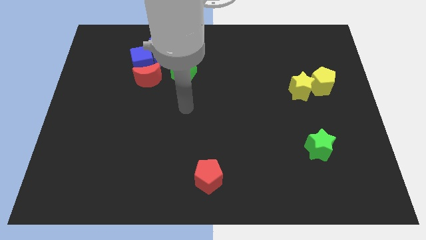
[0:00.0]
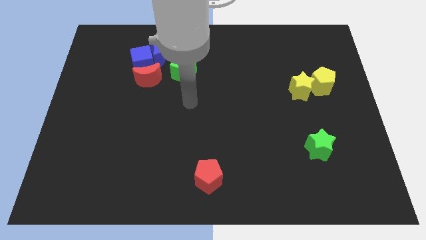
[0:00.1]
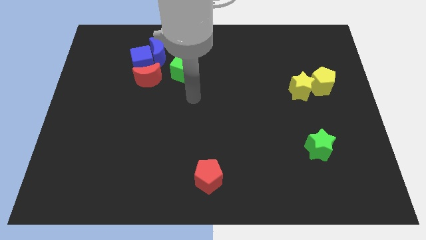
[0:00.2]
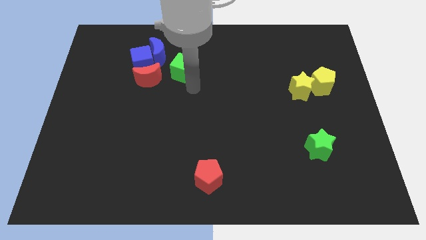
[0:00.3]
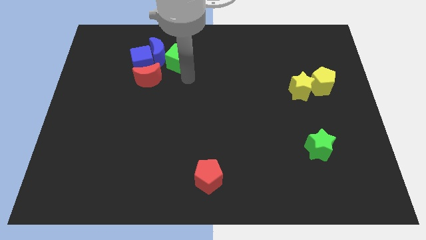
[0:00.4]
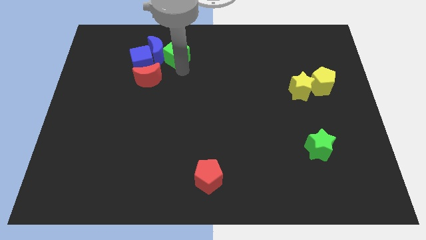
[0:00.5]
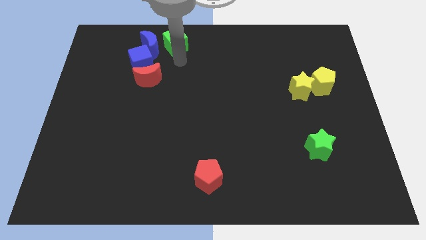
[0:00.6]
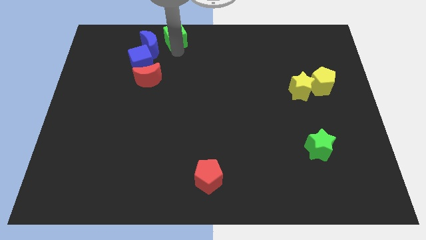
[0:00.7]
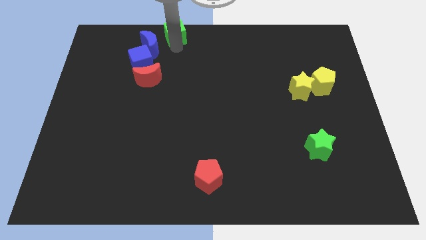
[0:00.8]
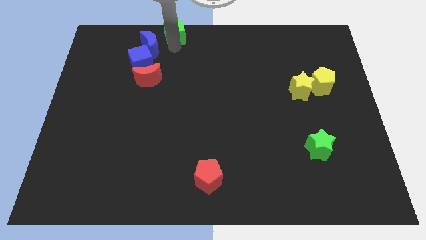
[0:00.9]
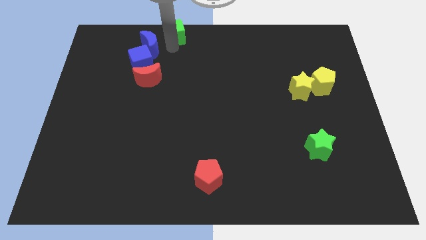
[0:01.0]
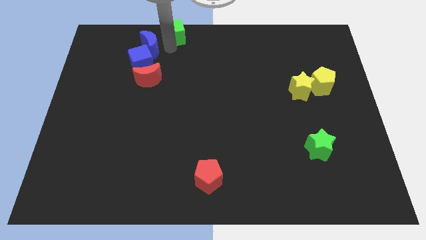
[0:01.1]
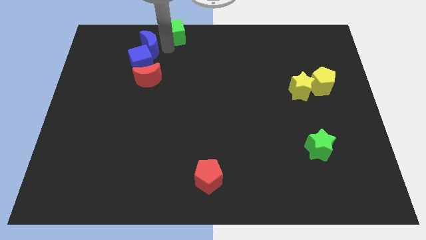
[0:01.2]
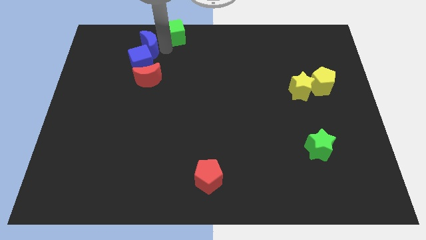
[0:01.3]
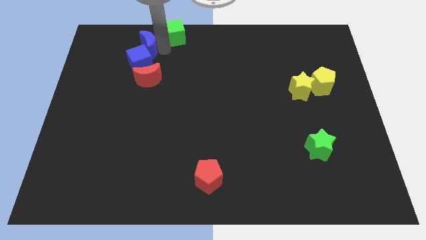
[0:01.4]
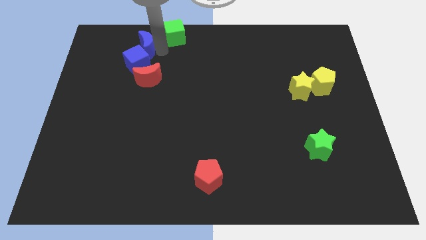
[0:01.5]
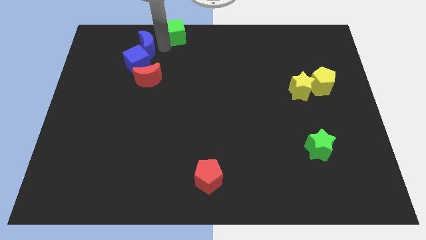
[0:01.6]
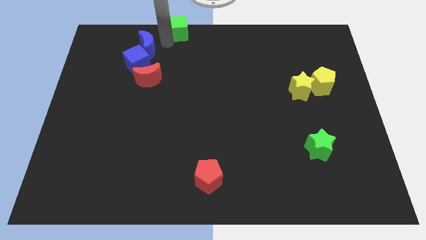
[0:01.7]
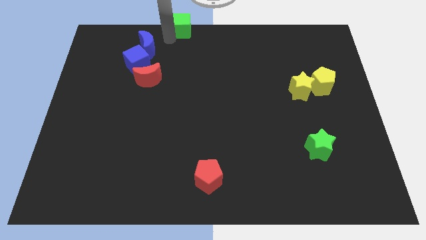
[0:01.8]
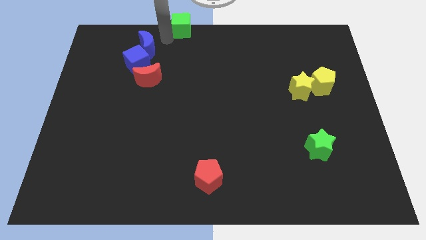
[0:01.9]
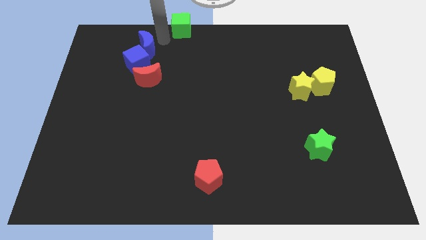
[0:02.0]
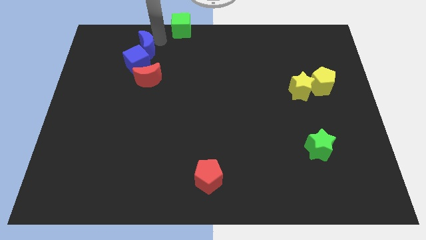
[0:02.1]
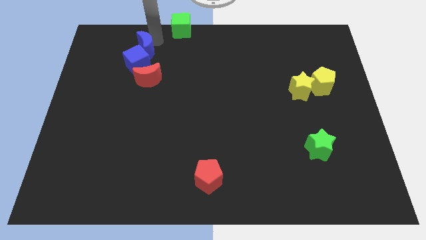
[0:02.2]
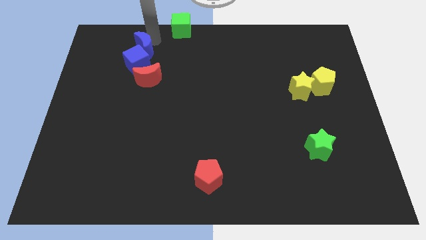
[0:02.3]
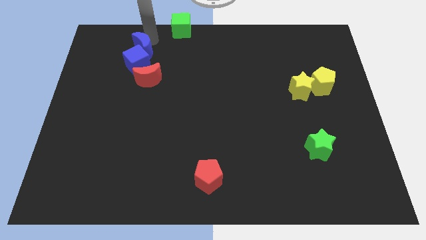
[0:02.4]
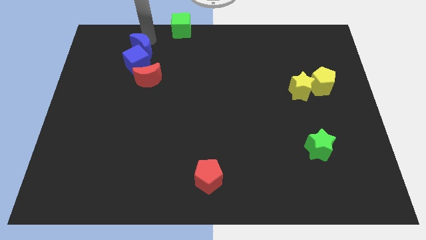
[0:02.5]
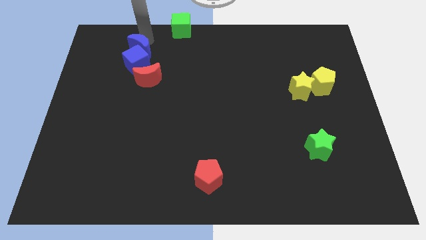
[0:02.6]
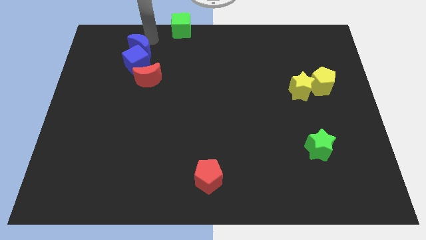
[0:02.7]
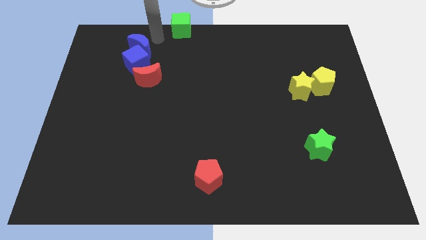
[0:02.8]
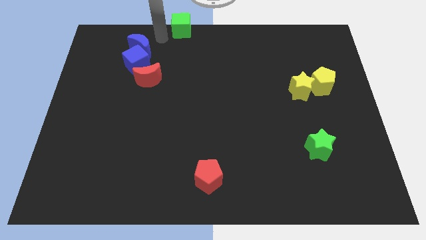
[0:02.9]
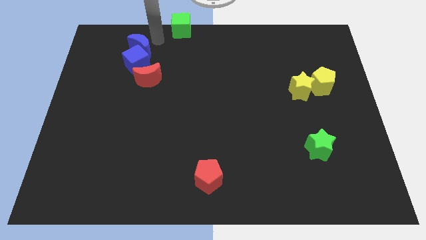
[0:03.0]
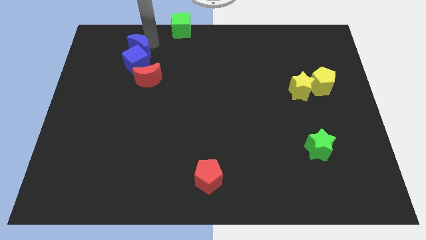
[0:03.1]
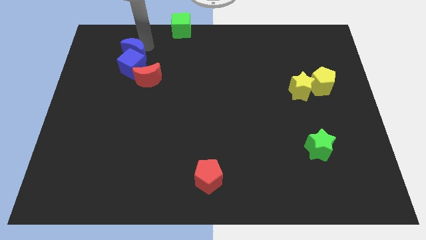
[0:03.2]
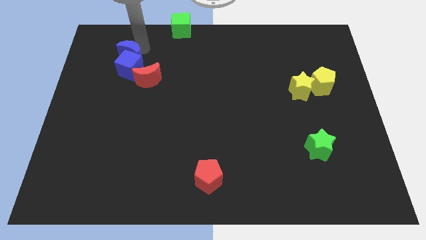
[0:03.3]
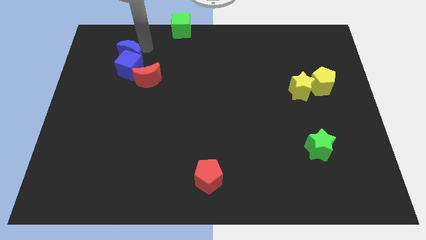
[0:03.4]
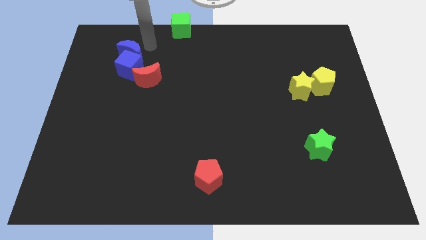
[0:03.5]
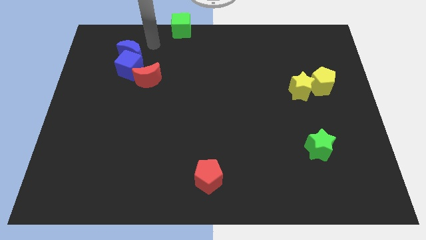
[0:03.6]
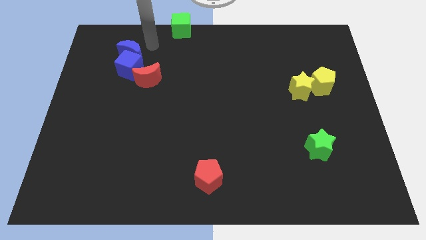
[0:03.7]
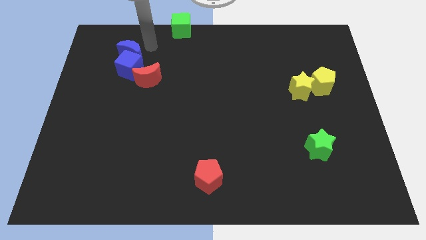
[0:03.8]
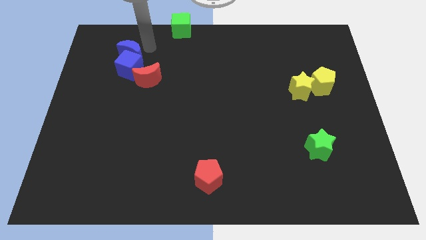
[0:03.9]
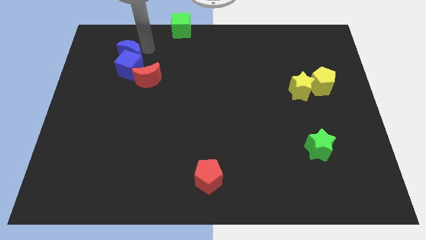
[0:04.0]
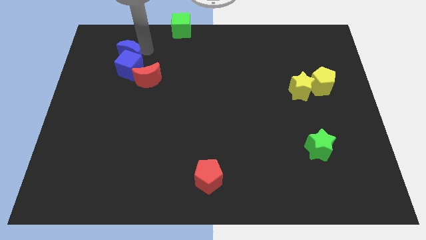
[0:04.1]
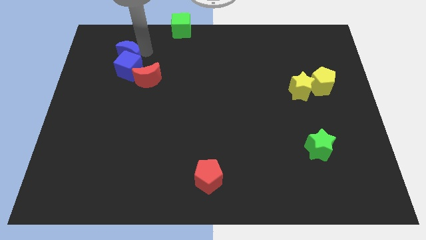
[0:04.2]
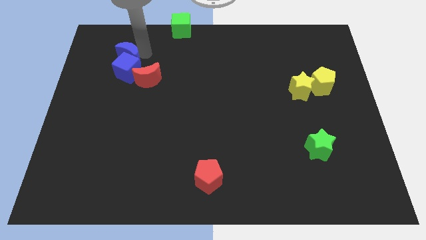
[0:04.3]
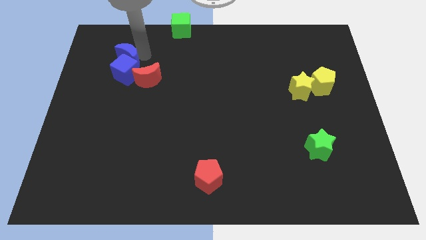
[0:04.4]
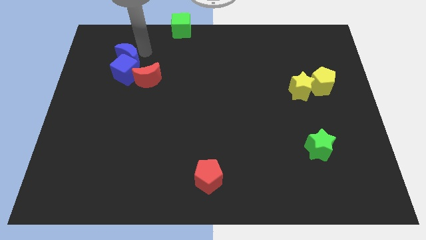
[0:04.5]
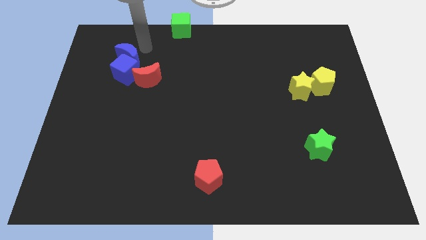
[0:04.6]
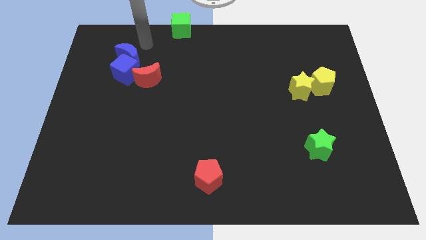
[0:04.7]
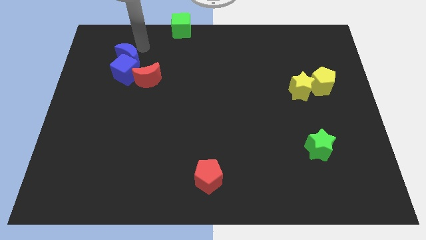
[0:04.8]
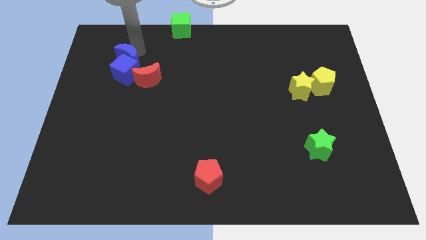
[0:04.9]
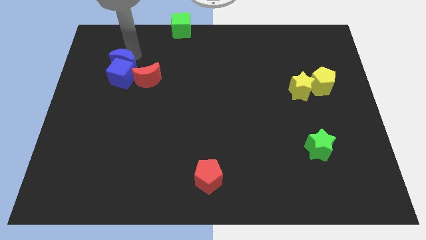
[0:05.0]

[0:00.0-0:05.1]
slightly move the blue moon down and then to the left

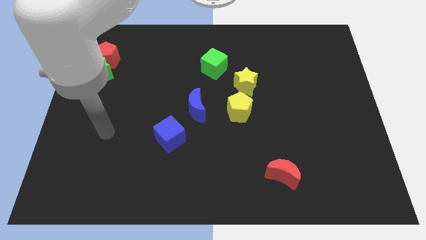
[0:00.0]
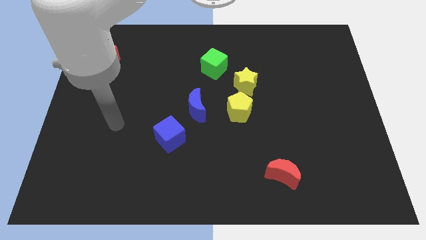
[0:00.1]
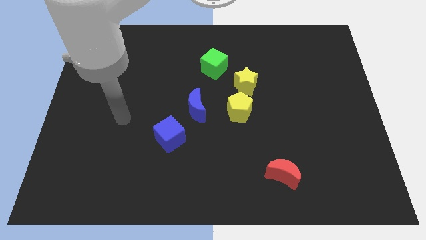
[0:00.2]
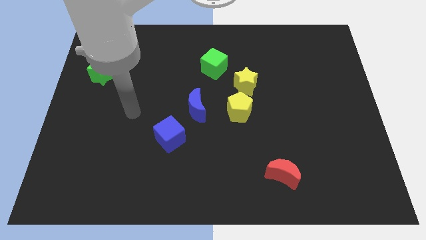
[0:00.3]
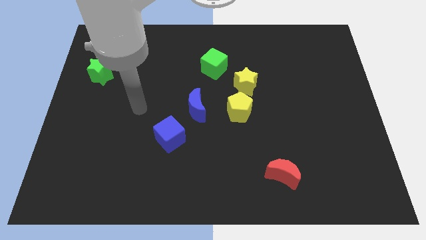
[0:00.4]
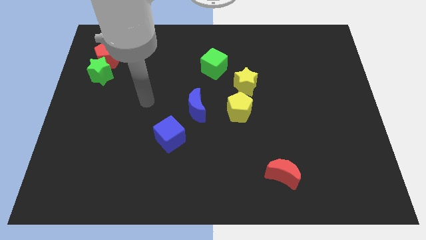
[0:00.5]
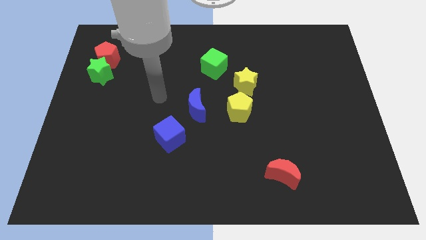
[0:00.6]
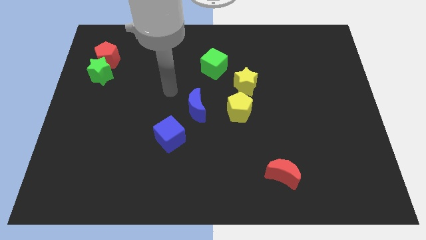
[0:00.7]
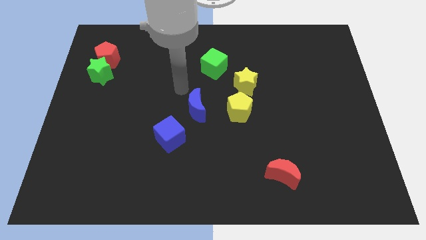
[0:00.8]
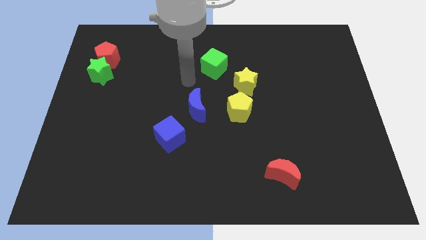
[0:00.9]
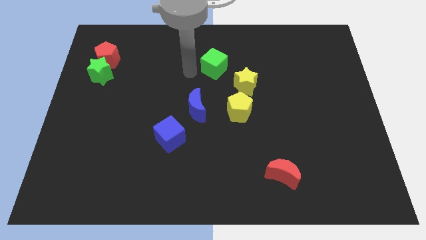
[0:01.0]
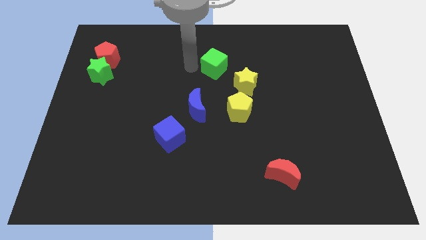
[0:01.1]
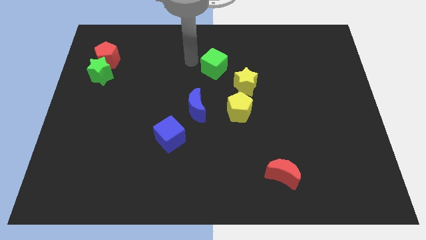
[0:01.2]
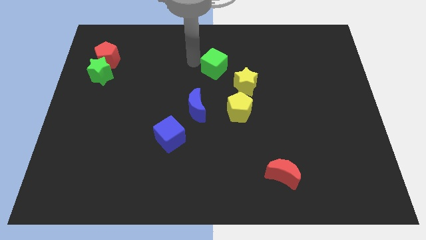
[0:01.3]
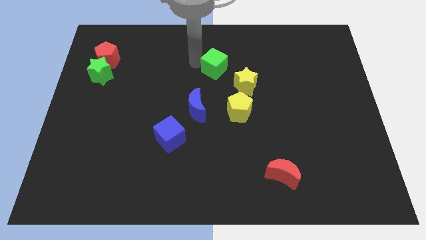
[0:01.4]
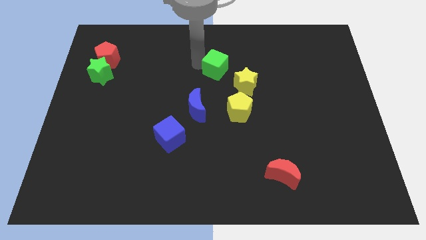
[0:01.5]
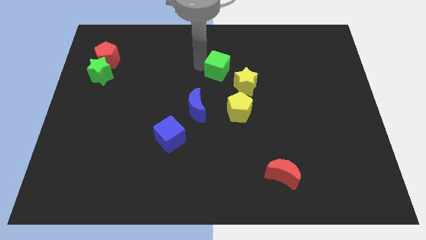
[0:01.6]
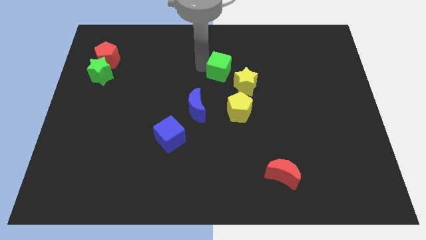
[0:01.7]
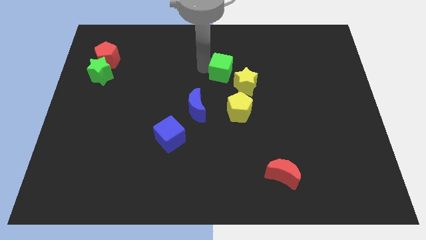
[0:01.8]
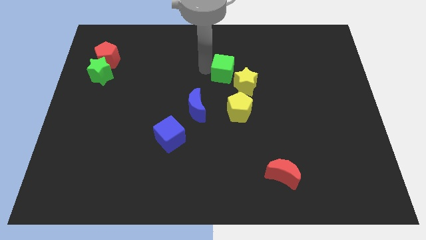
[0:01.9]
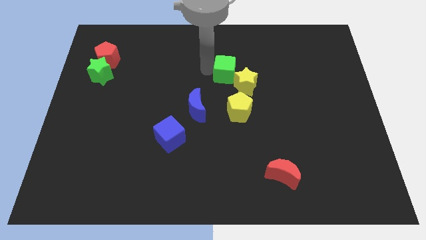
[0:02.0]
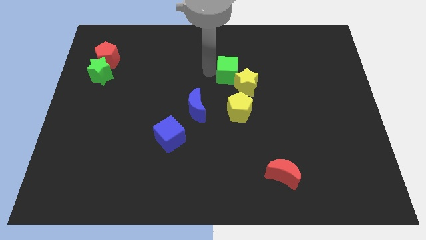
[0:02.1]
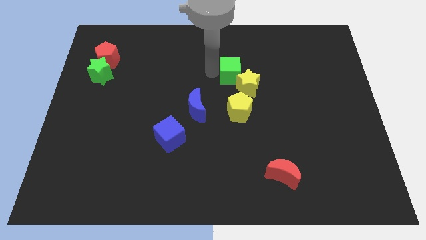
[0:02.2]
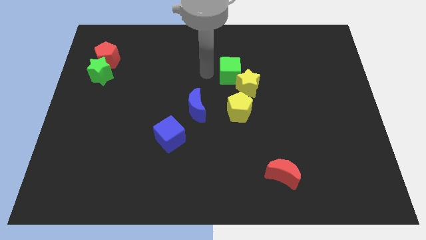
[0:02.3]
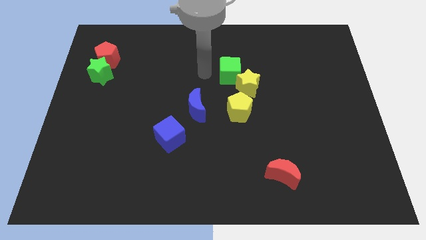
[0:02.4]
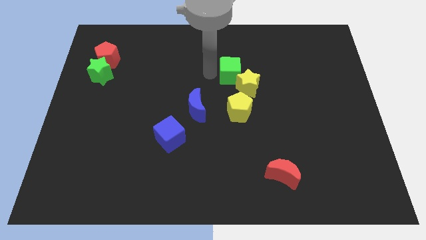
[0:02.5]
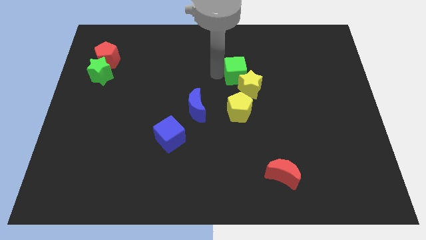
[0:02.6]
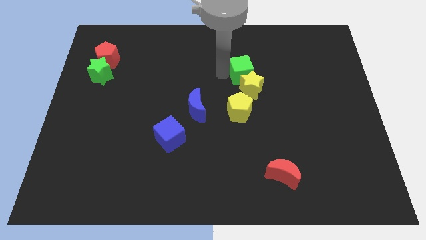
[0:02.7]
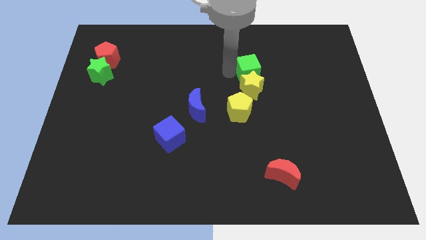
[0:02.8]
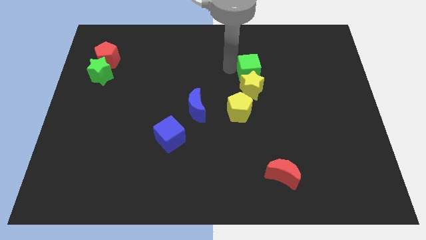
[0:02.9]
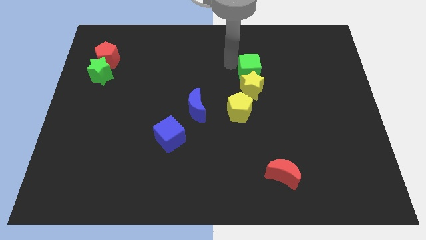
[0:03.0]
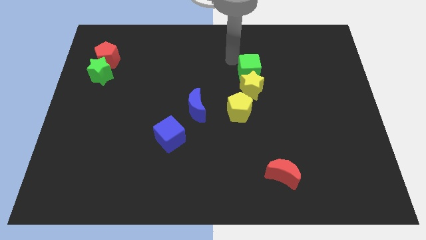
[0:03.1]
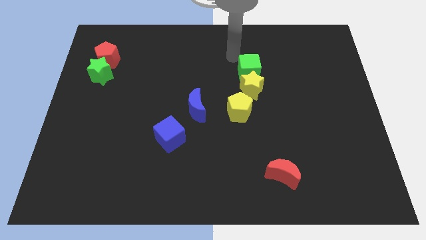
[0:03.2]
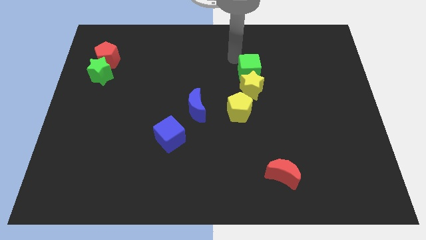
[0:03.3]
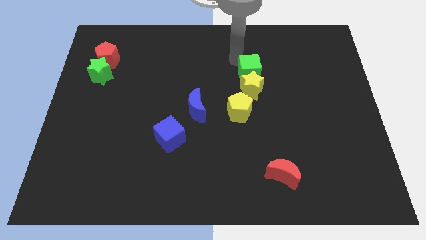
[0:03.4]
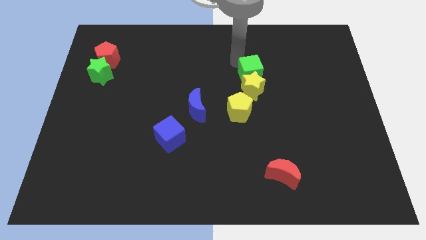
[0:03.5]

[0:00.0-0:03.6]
slightly slide the green cube diagonally down and to the right
